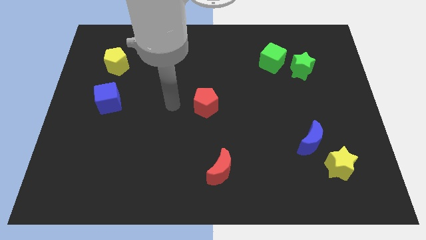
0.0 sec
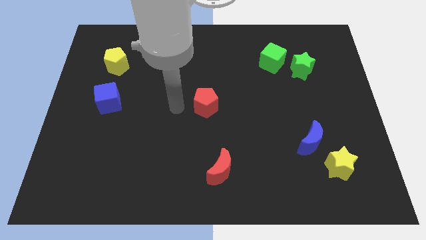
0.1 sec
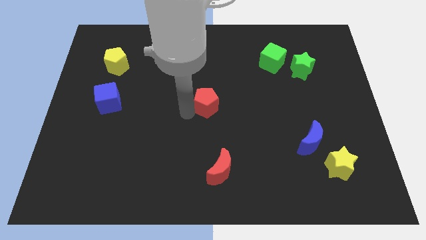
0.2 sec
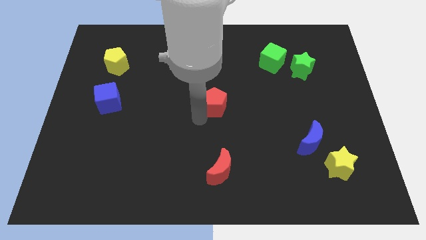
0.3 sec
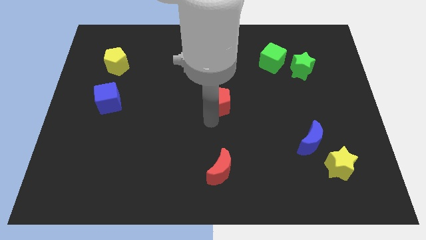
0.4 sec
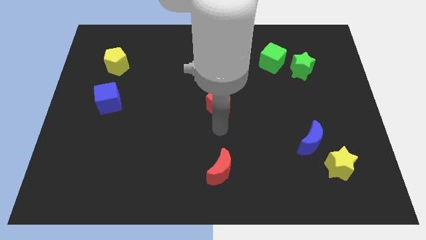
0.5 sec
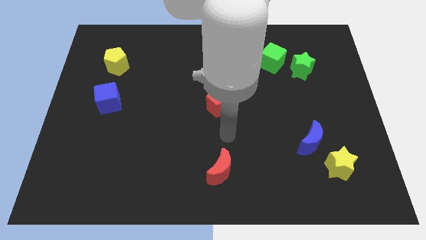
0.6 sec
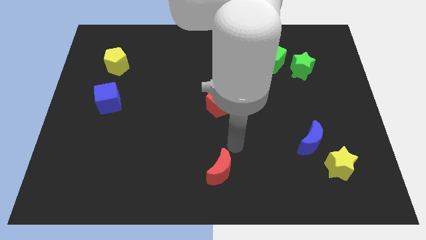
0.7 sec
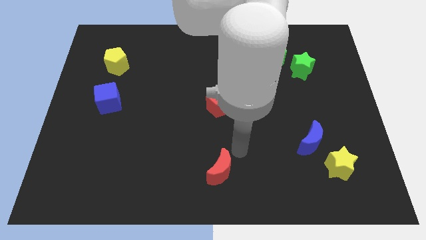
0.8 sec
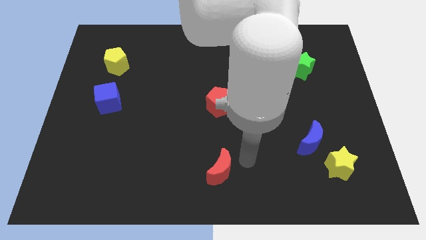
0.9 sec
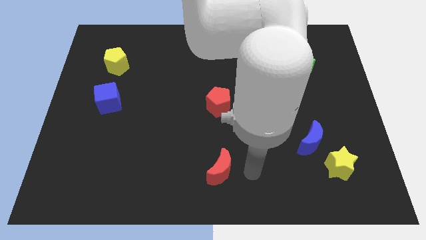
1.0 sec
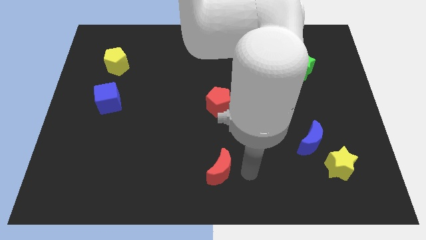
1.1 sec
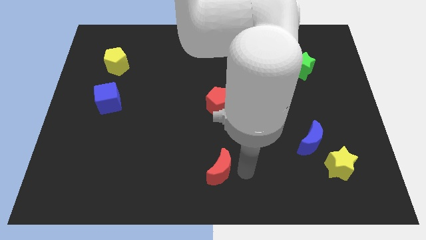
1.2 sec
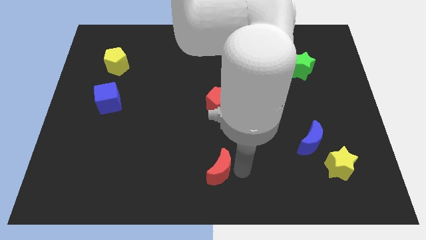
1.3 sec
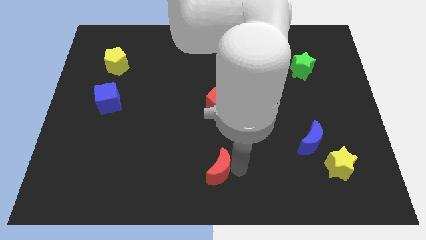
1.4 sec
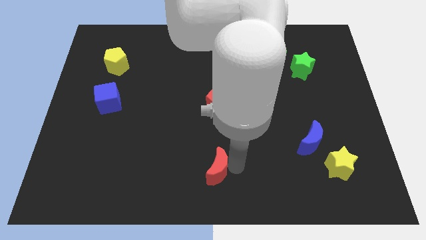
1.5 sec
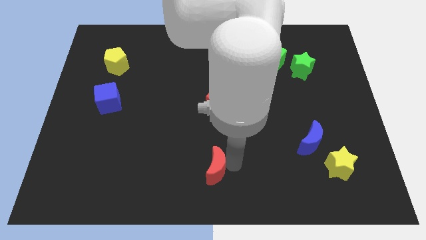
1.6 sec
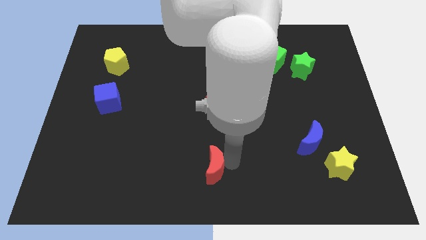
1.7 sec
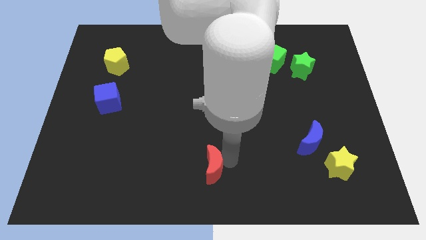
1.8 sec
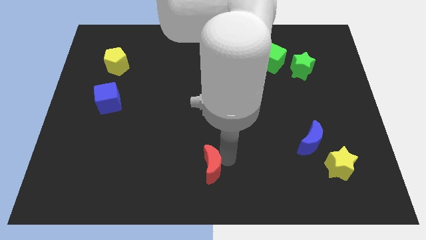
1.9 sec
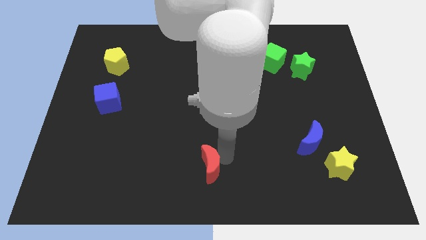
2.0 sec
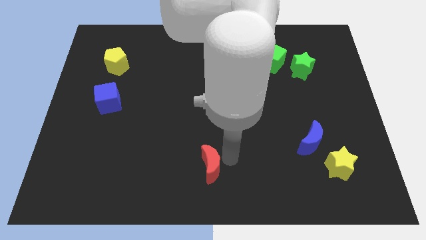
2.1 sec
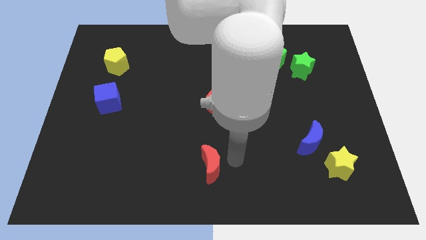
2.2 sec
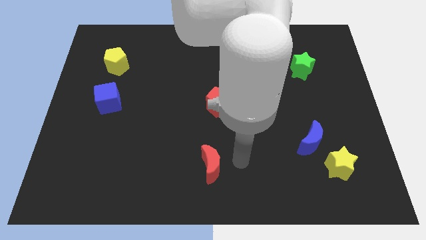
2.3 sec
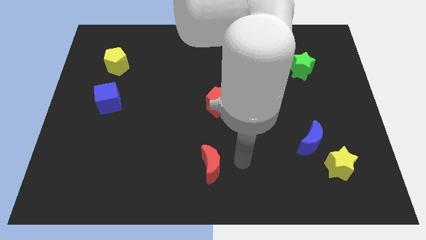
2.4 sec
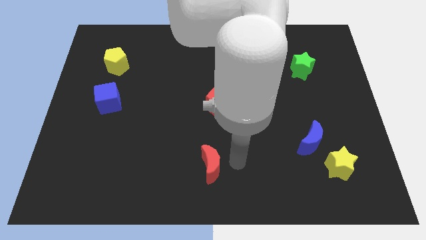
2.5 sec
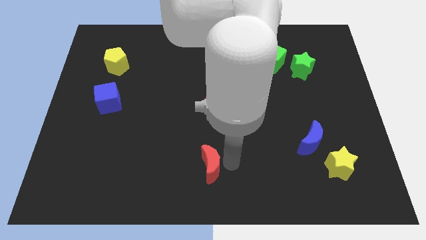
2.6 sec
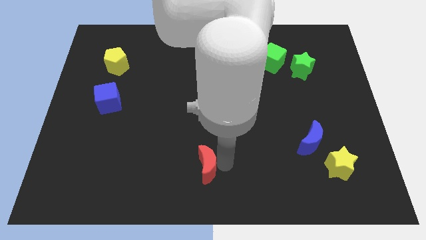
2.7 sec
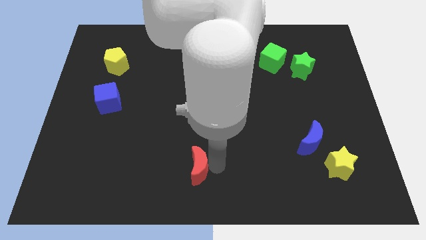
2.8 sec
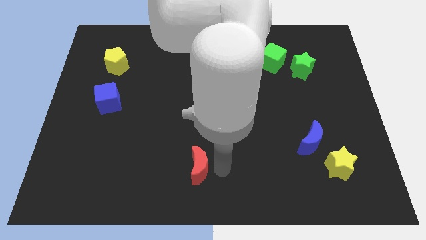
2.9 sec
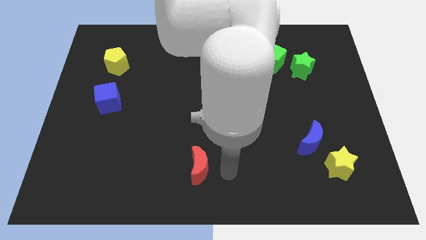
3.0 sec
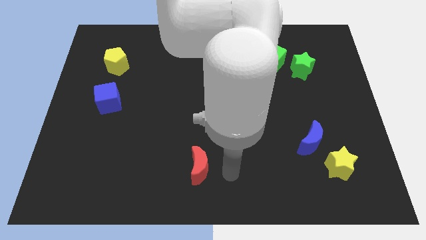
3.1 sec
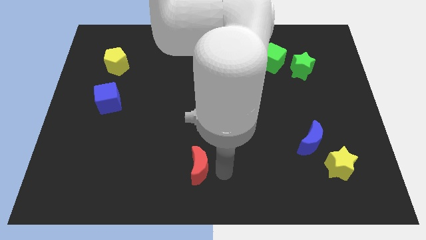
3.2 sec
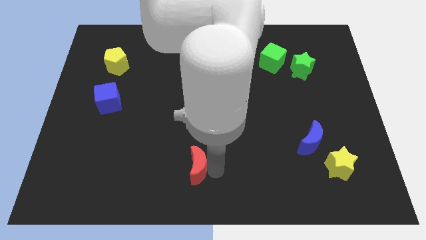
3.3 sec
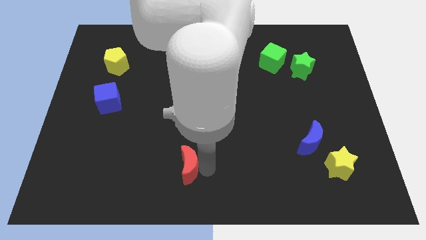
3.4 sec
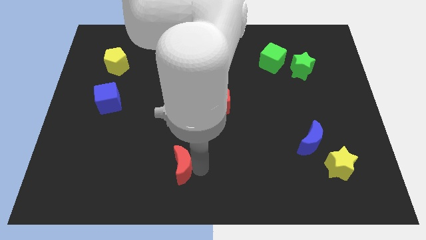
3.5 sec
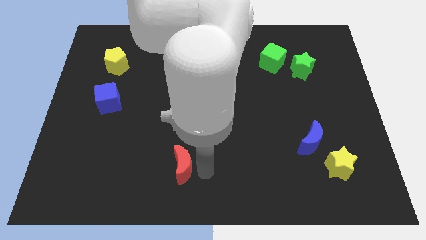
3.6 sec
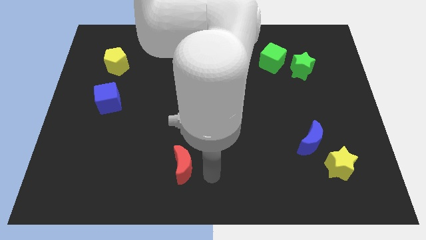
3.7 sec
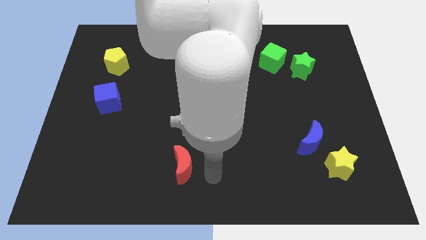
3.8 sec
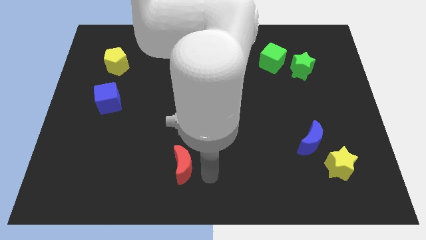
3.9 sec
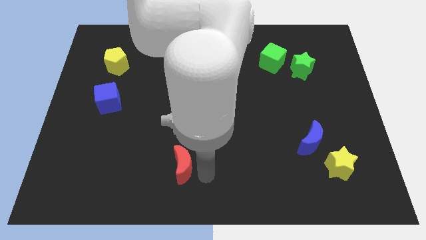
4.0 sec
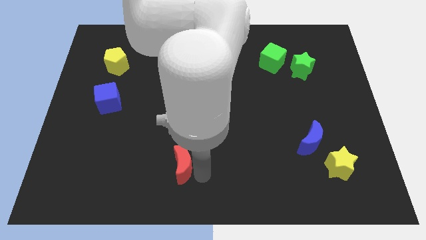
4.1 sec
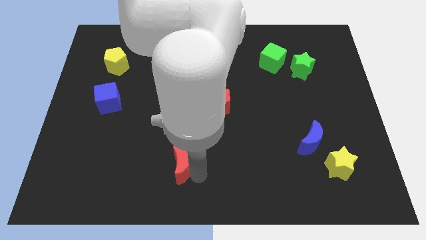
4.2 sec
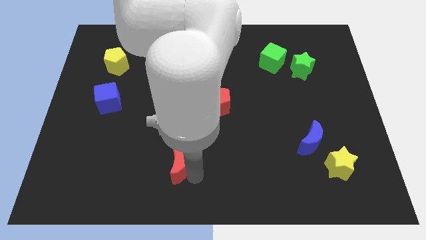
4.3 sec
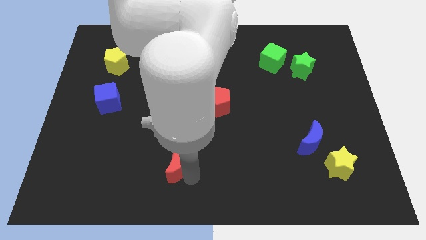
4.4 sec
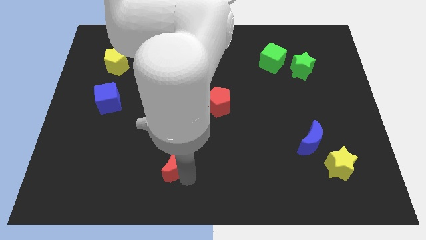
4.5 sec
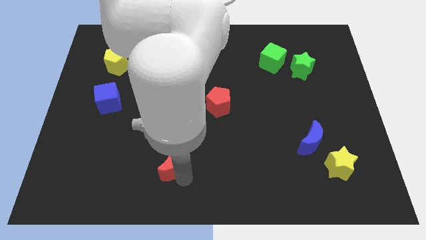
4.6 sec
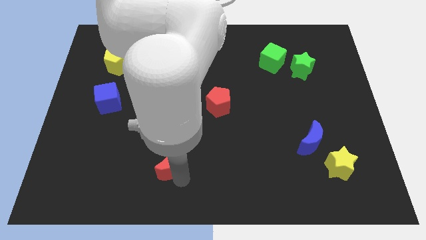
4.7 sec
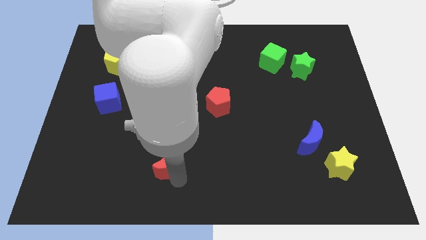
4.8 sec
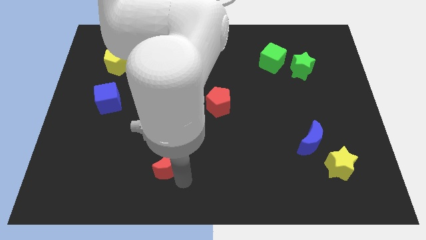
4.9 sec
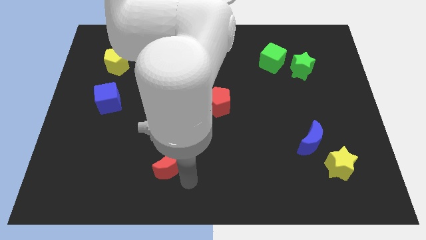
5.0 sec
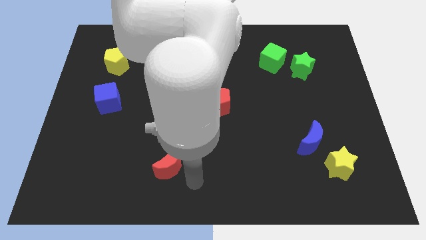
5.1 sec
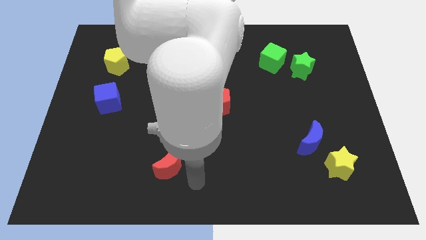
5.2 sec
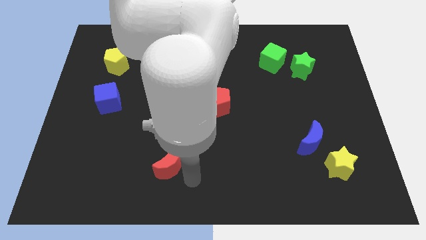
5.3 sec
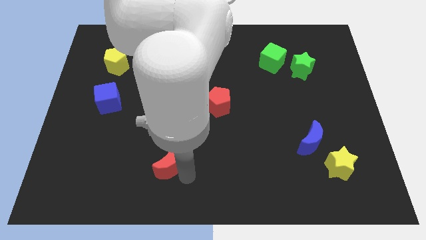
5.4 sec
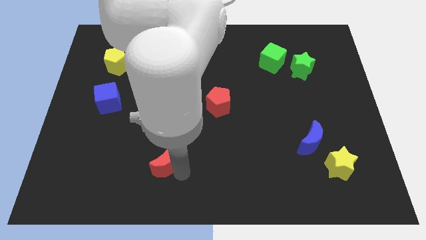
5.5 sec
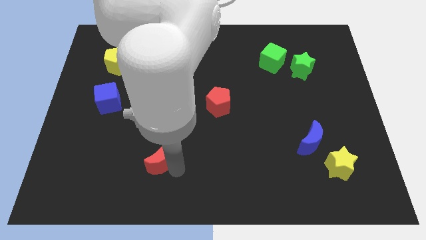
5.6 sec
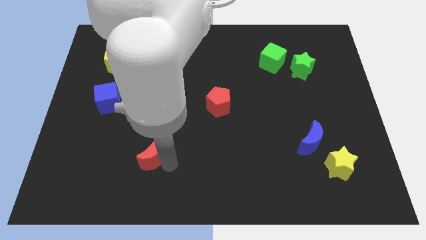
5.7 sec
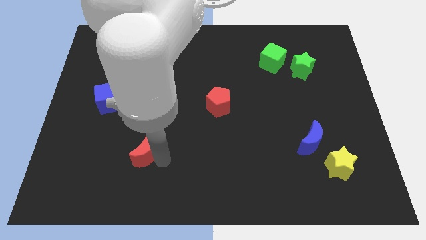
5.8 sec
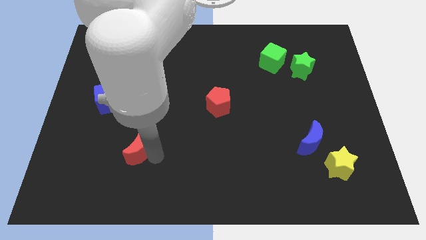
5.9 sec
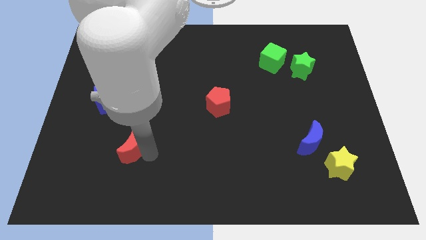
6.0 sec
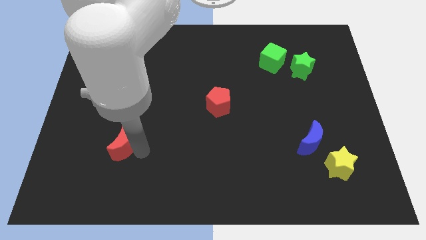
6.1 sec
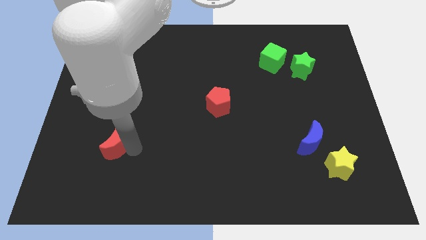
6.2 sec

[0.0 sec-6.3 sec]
slide the red moon to the bottom side of the blue cube
